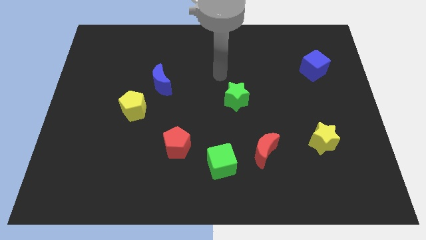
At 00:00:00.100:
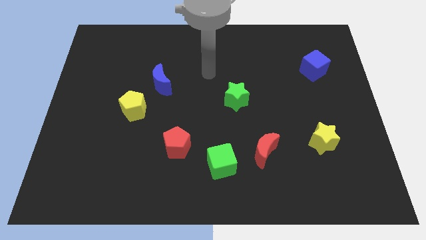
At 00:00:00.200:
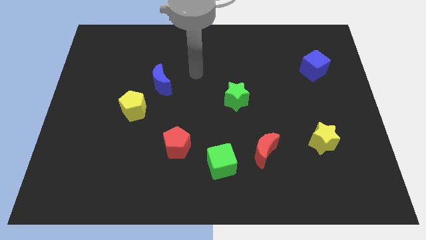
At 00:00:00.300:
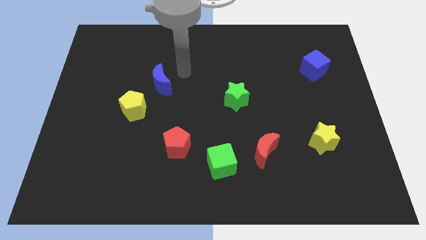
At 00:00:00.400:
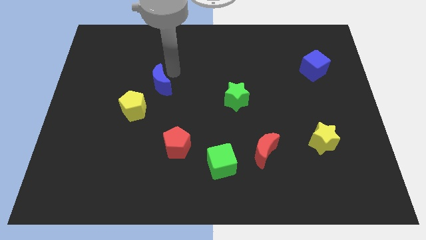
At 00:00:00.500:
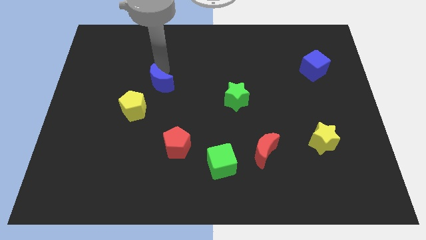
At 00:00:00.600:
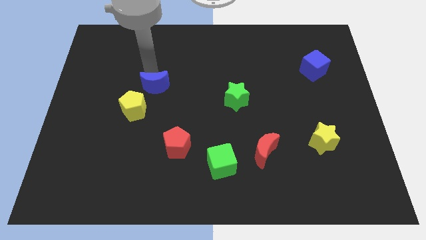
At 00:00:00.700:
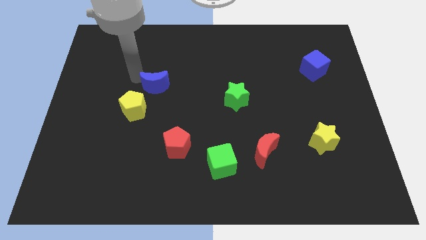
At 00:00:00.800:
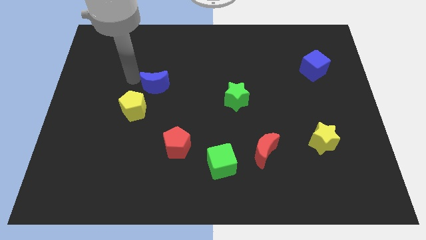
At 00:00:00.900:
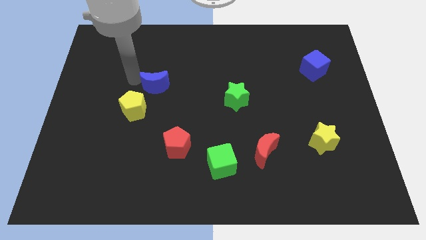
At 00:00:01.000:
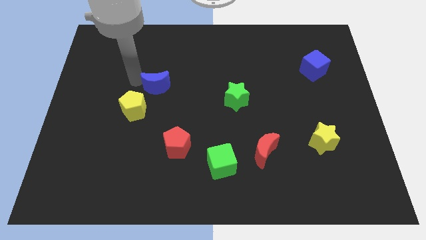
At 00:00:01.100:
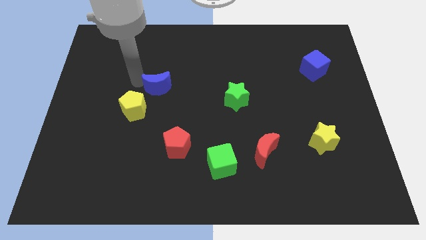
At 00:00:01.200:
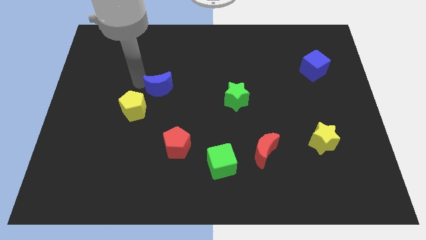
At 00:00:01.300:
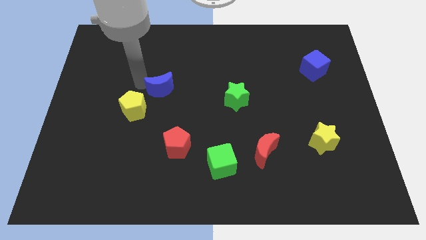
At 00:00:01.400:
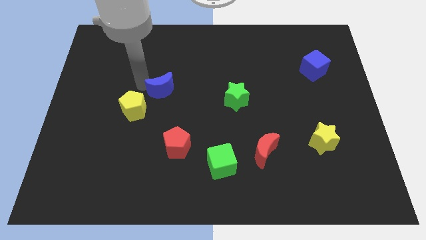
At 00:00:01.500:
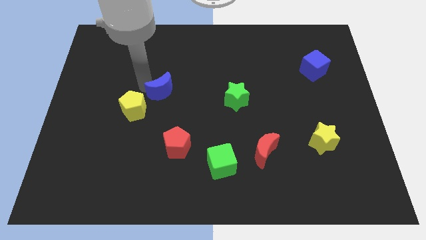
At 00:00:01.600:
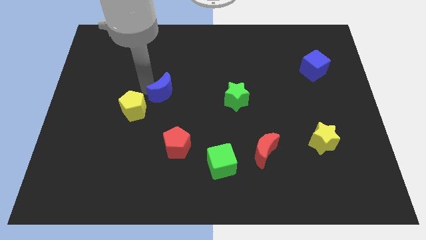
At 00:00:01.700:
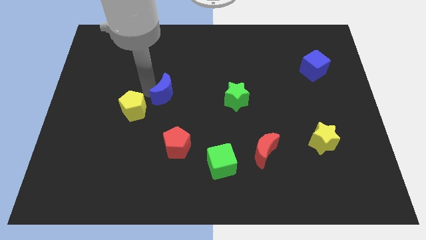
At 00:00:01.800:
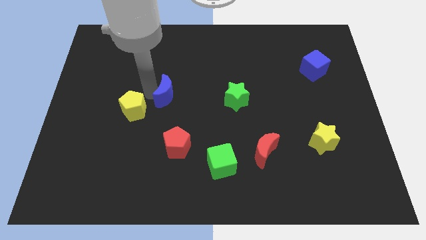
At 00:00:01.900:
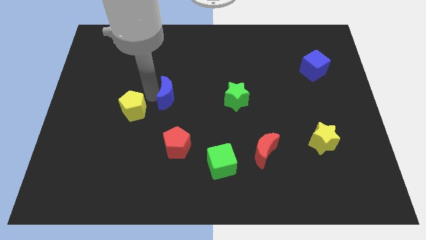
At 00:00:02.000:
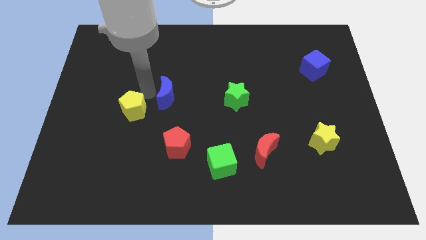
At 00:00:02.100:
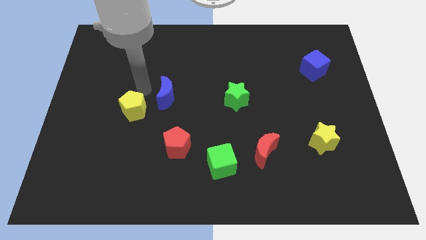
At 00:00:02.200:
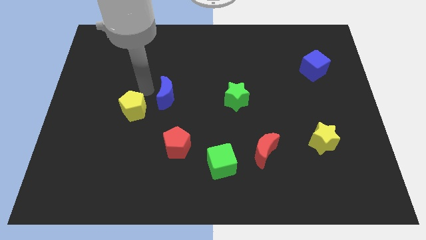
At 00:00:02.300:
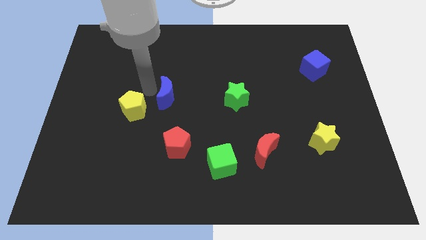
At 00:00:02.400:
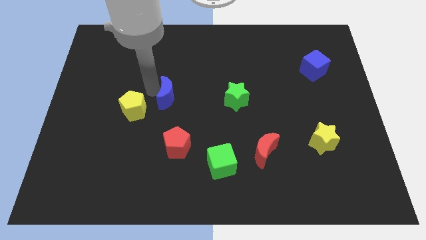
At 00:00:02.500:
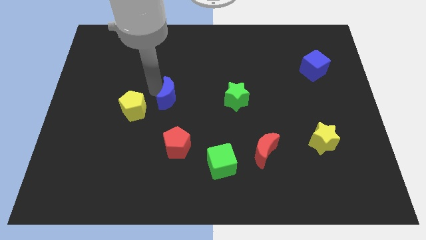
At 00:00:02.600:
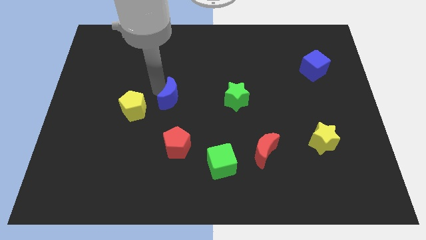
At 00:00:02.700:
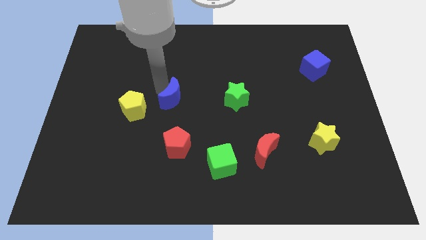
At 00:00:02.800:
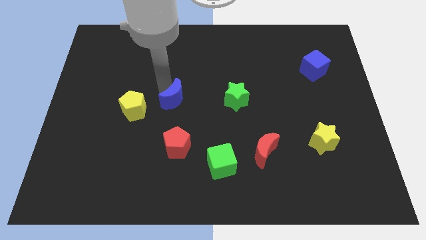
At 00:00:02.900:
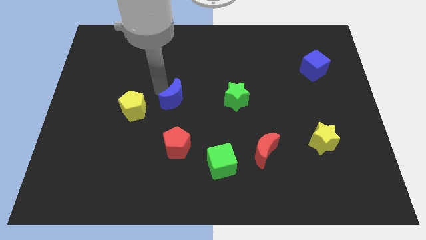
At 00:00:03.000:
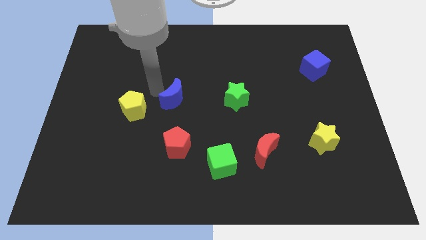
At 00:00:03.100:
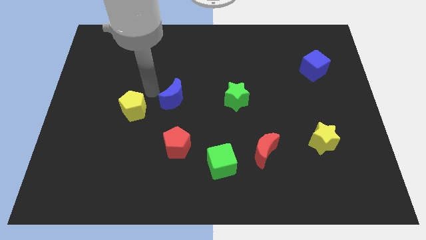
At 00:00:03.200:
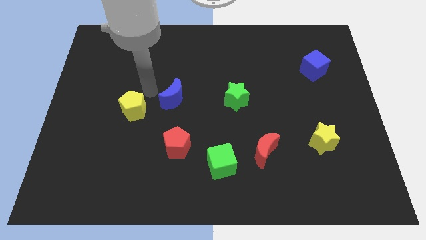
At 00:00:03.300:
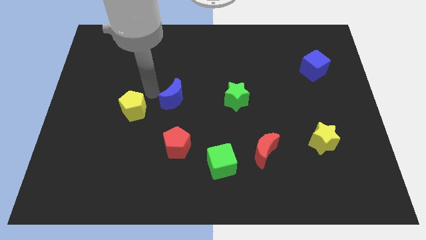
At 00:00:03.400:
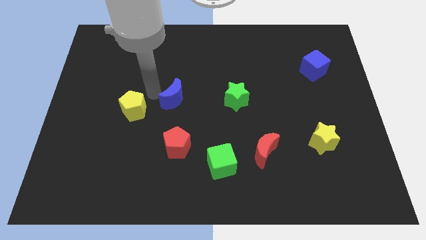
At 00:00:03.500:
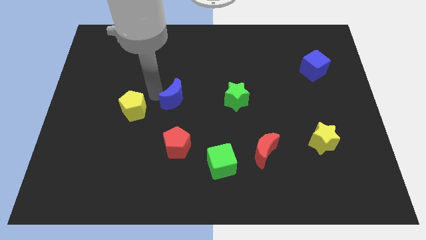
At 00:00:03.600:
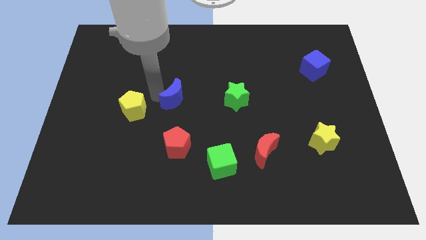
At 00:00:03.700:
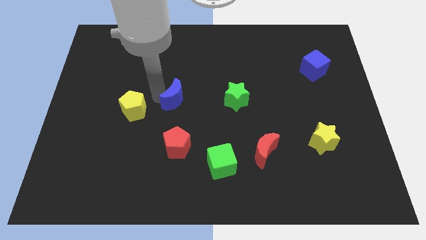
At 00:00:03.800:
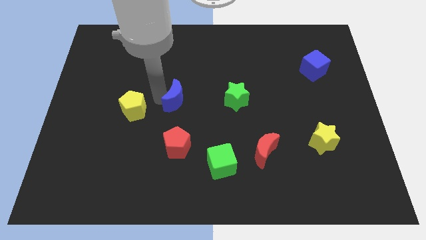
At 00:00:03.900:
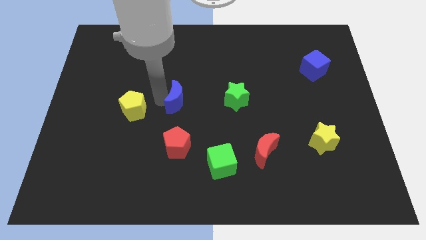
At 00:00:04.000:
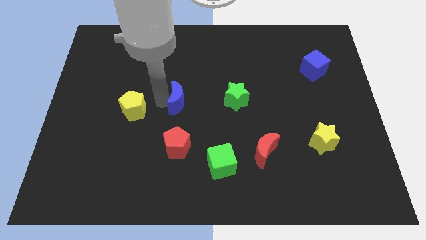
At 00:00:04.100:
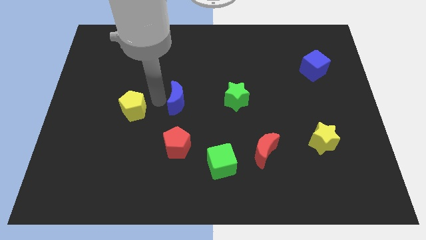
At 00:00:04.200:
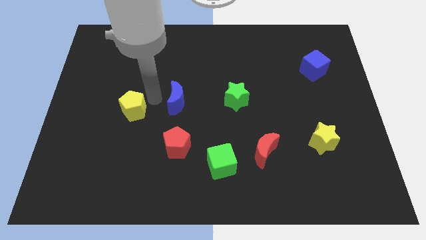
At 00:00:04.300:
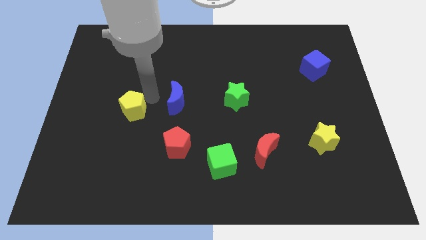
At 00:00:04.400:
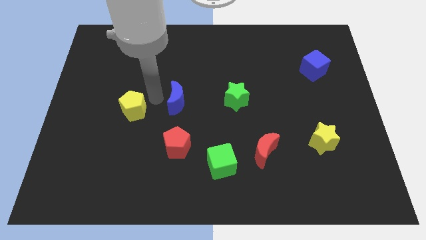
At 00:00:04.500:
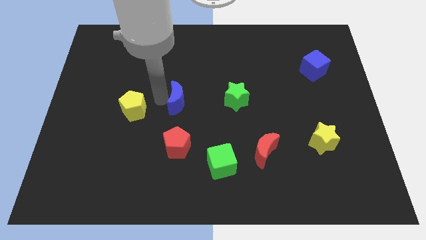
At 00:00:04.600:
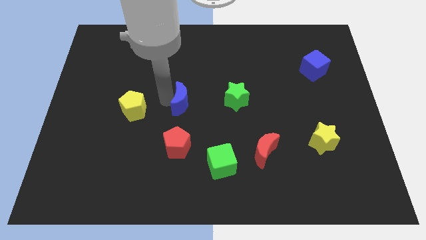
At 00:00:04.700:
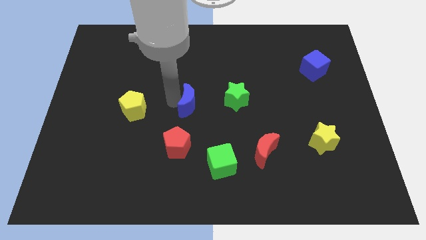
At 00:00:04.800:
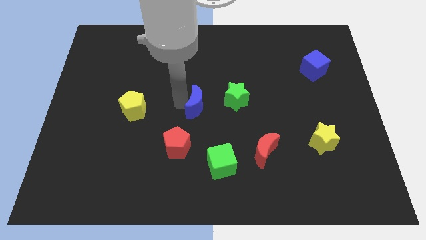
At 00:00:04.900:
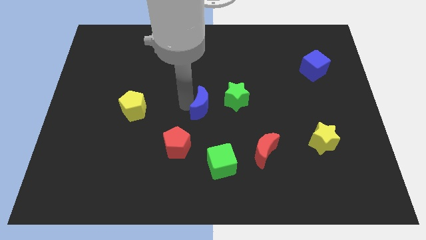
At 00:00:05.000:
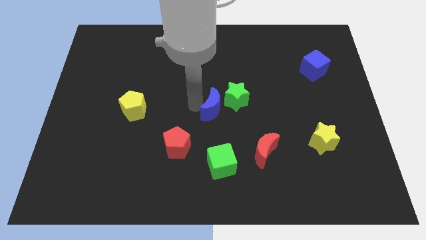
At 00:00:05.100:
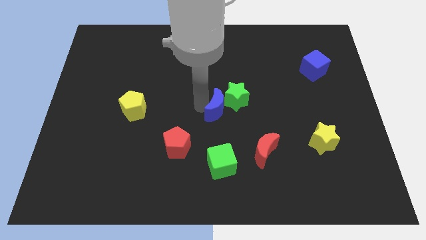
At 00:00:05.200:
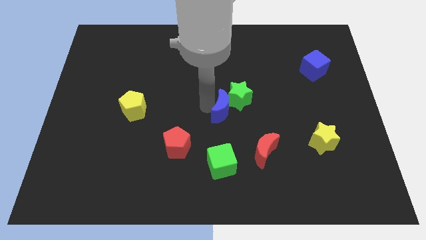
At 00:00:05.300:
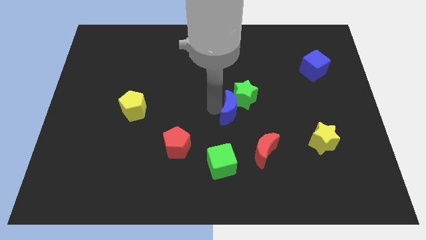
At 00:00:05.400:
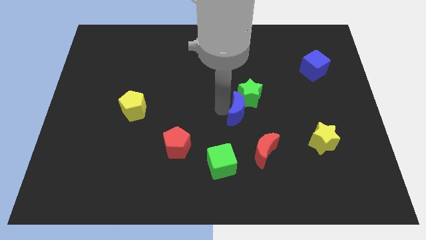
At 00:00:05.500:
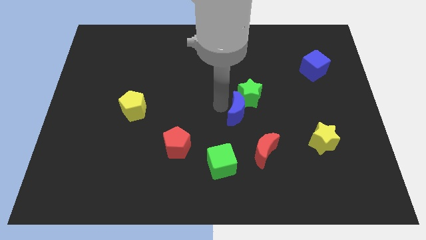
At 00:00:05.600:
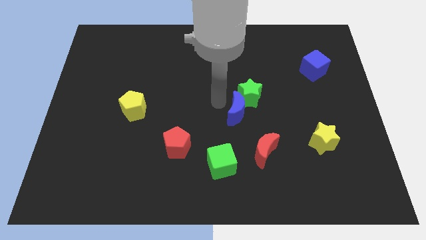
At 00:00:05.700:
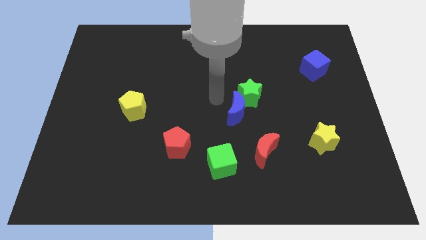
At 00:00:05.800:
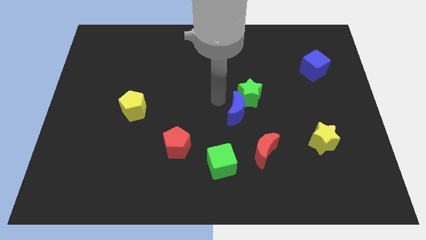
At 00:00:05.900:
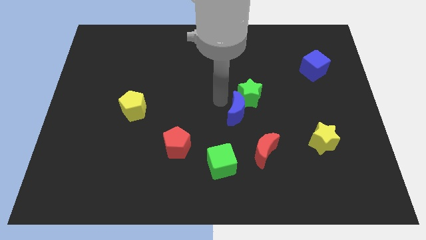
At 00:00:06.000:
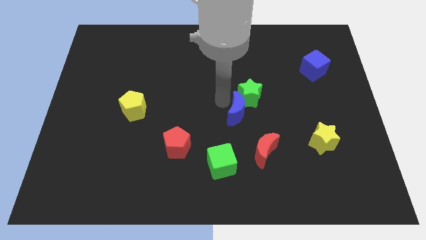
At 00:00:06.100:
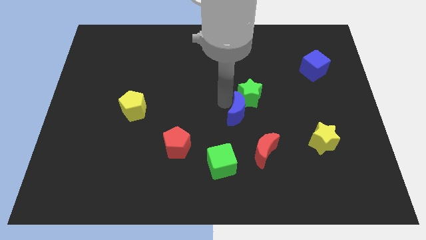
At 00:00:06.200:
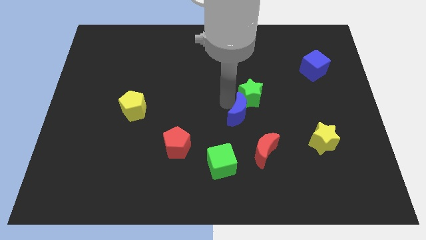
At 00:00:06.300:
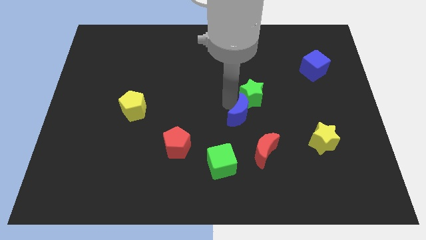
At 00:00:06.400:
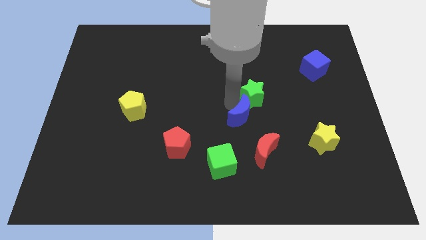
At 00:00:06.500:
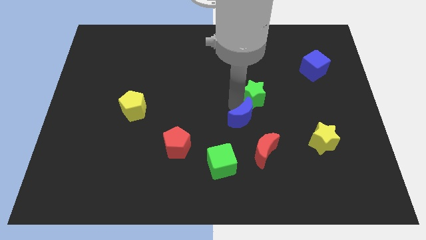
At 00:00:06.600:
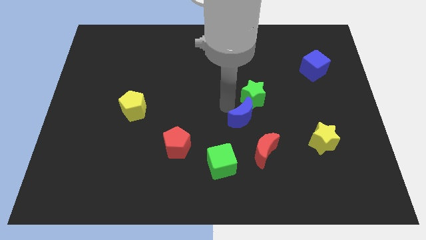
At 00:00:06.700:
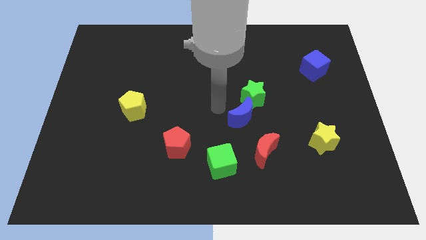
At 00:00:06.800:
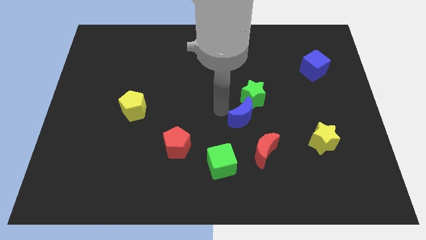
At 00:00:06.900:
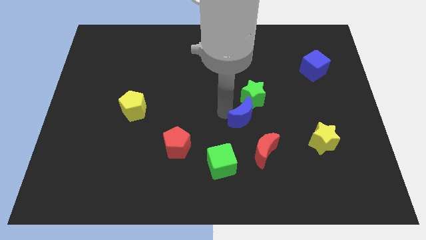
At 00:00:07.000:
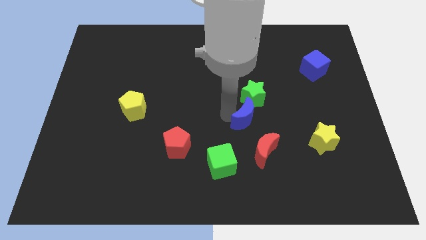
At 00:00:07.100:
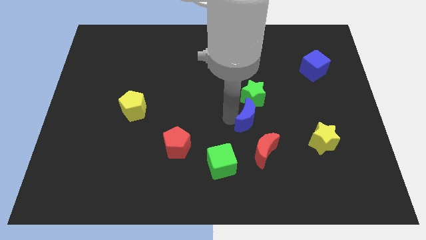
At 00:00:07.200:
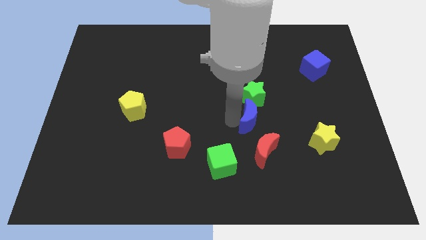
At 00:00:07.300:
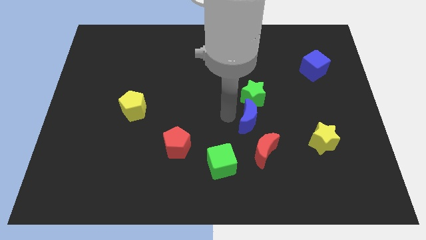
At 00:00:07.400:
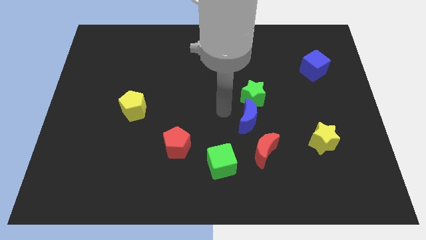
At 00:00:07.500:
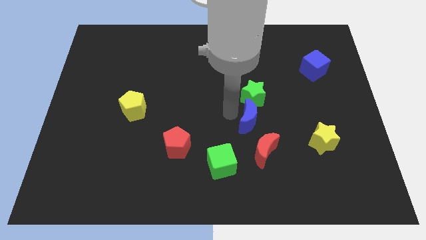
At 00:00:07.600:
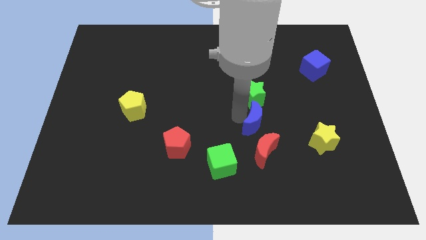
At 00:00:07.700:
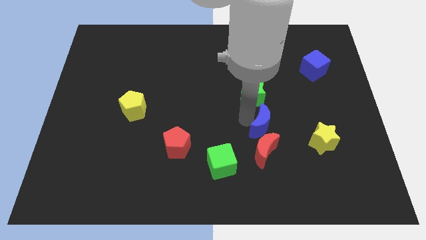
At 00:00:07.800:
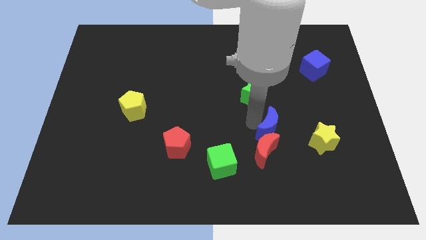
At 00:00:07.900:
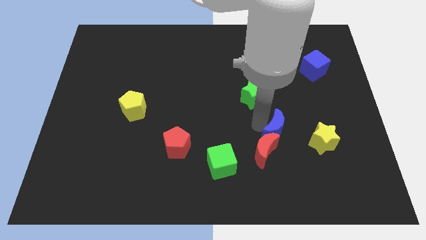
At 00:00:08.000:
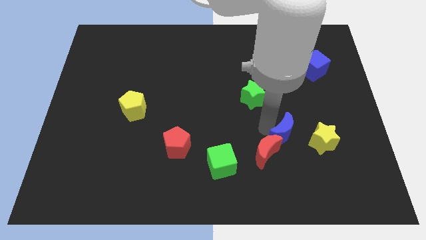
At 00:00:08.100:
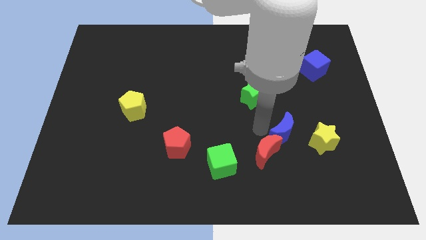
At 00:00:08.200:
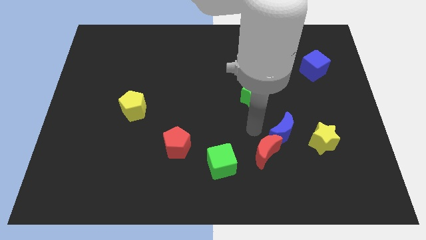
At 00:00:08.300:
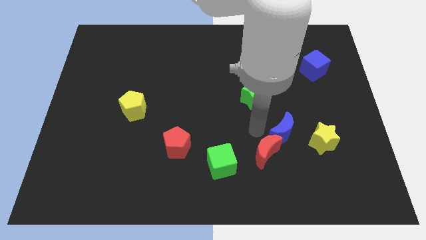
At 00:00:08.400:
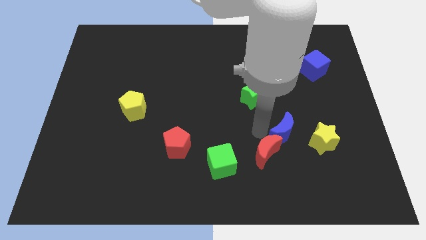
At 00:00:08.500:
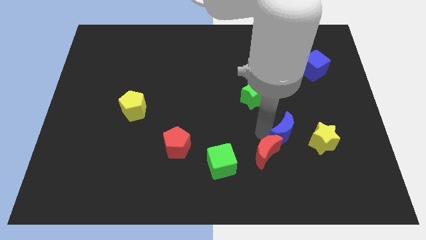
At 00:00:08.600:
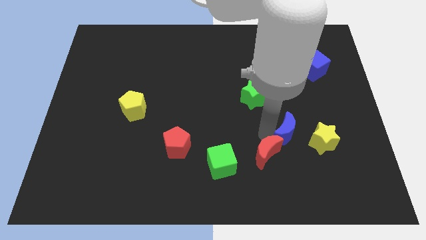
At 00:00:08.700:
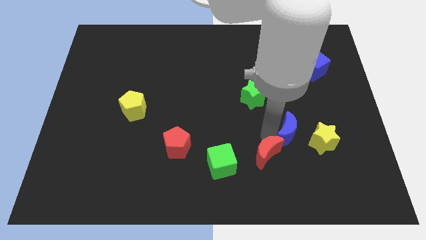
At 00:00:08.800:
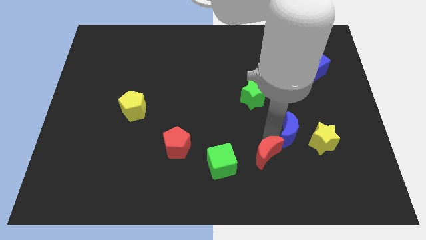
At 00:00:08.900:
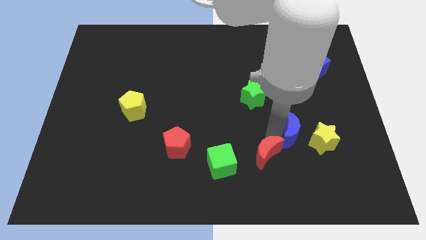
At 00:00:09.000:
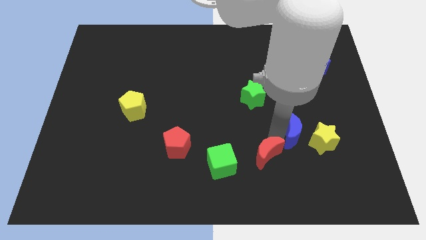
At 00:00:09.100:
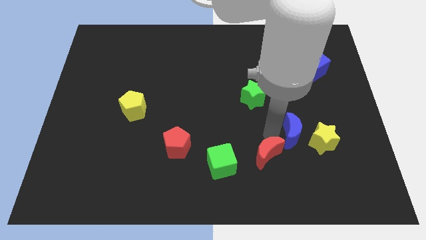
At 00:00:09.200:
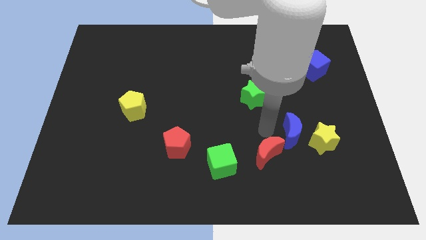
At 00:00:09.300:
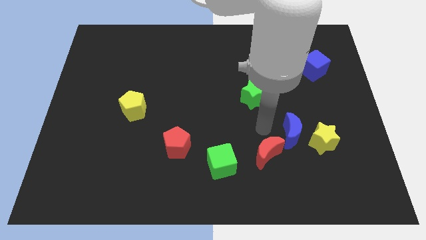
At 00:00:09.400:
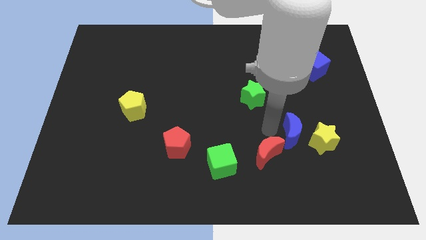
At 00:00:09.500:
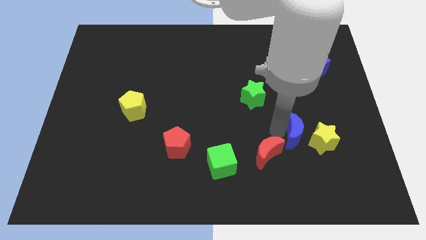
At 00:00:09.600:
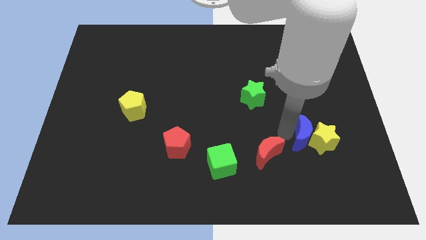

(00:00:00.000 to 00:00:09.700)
move the blue moon close to the yellow star
